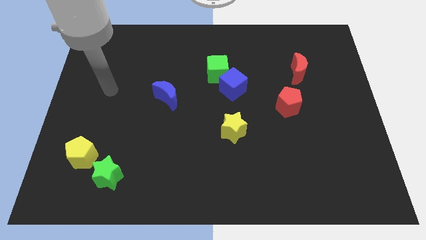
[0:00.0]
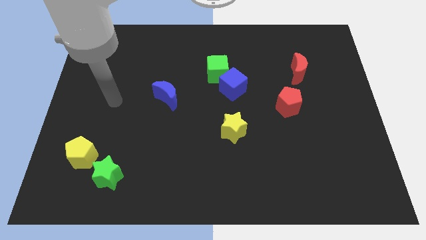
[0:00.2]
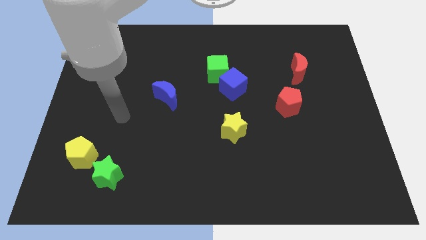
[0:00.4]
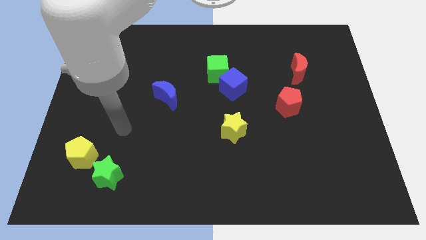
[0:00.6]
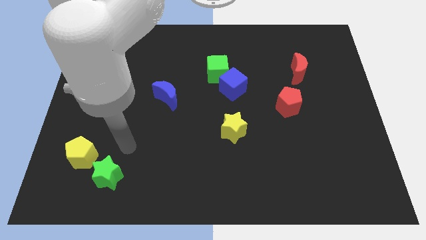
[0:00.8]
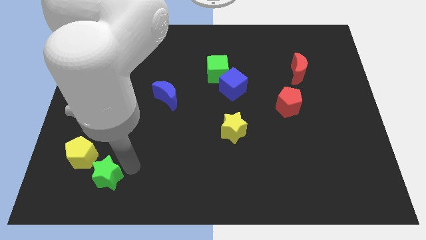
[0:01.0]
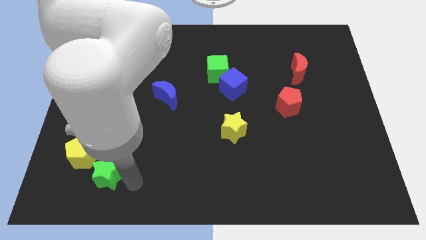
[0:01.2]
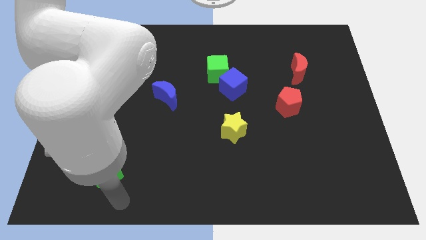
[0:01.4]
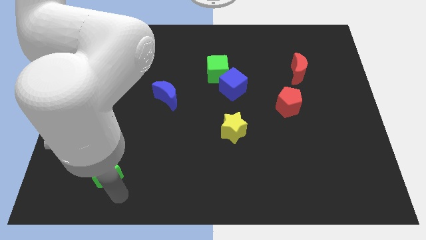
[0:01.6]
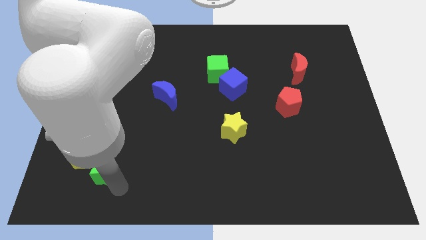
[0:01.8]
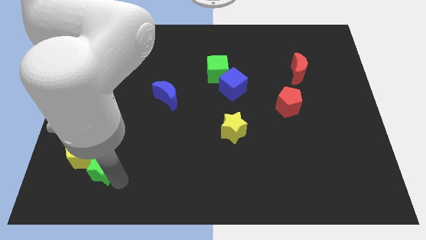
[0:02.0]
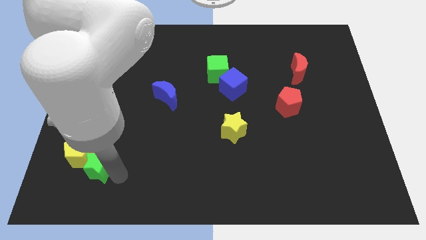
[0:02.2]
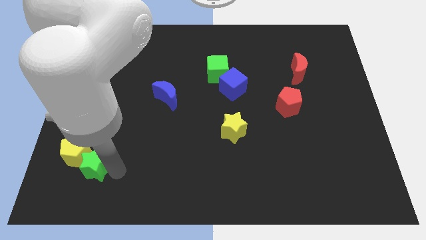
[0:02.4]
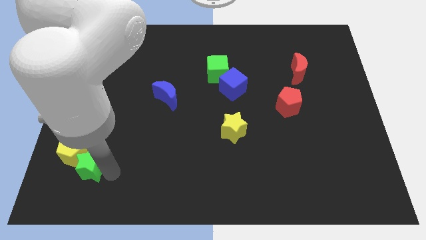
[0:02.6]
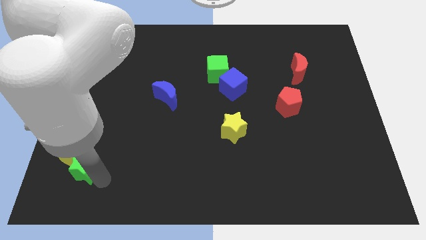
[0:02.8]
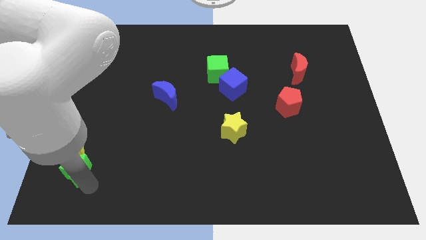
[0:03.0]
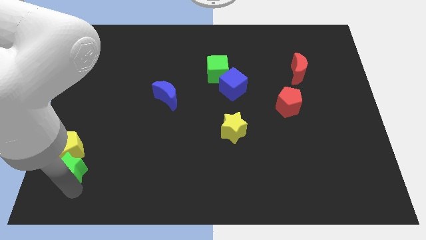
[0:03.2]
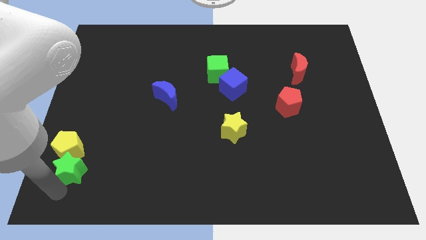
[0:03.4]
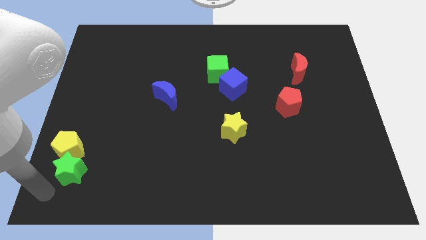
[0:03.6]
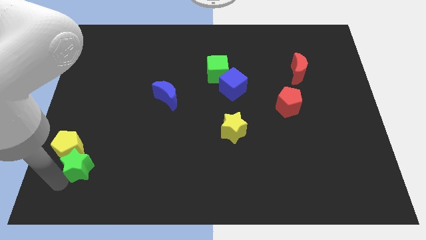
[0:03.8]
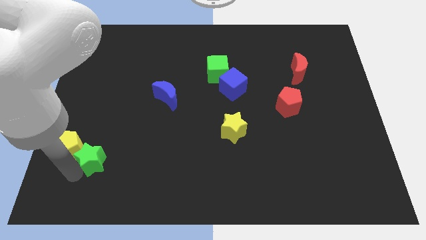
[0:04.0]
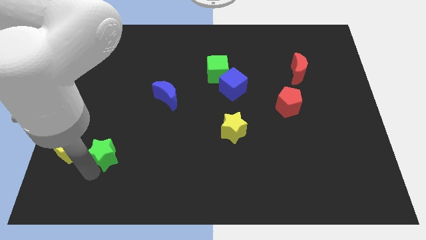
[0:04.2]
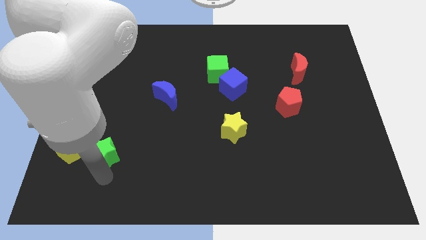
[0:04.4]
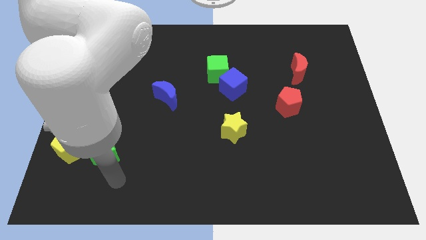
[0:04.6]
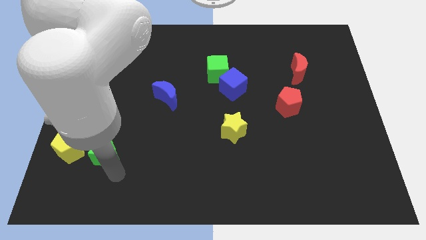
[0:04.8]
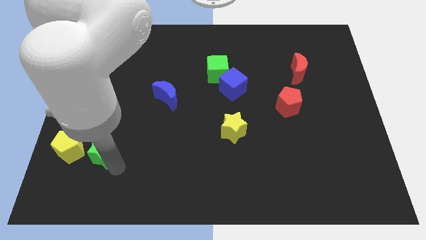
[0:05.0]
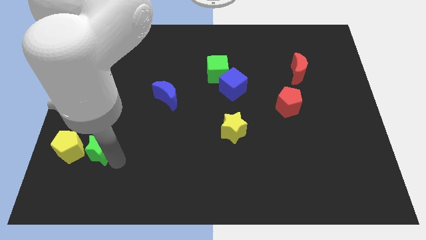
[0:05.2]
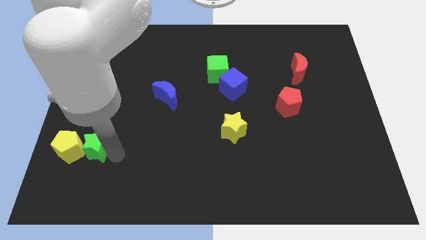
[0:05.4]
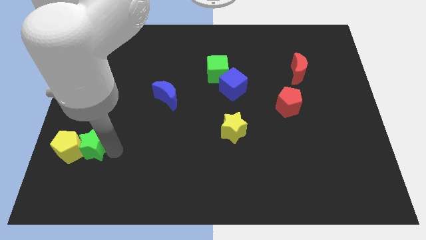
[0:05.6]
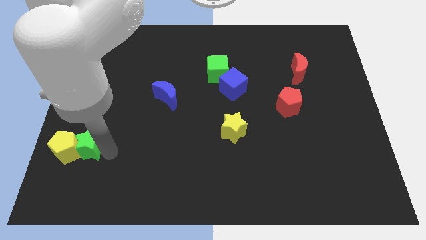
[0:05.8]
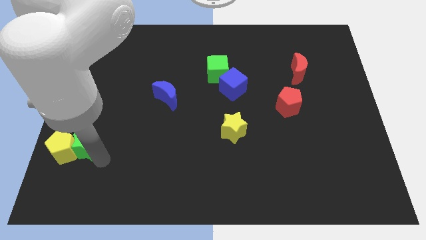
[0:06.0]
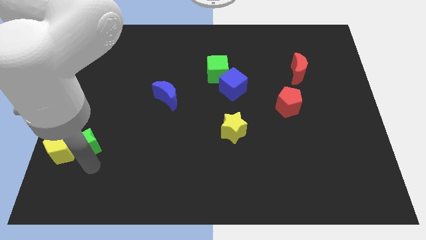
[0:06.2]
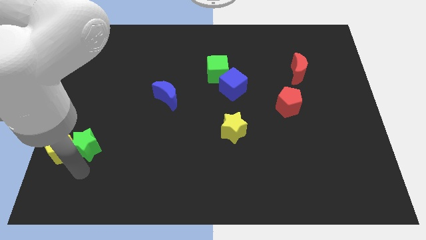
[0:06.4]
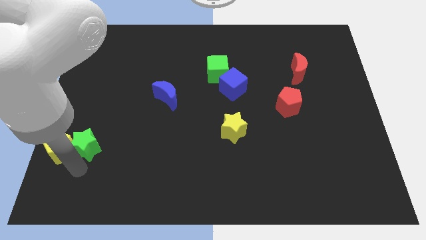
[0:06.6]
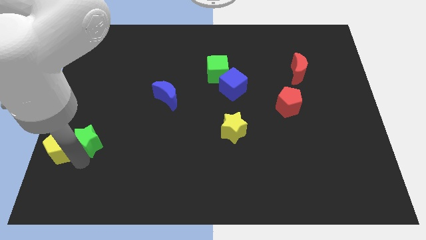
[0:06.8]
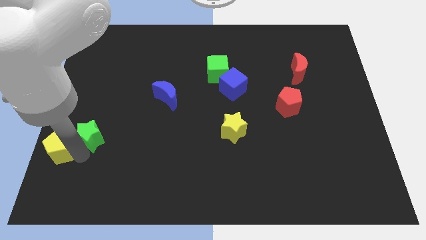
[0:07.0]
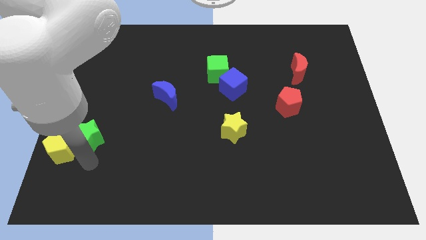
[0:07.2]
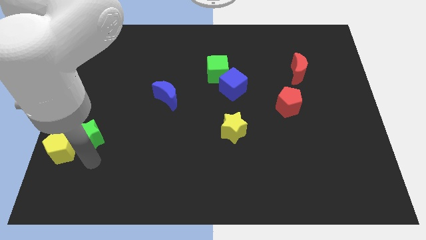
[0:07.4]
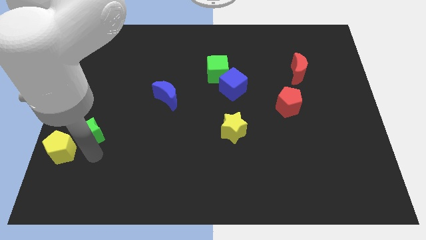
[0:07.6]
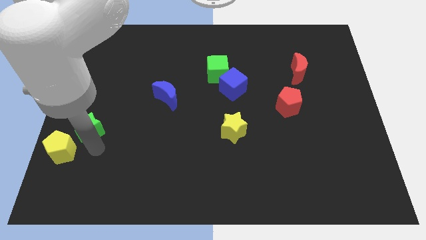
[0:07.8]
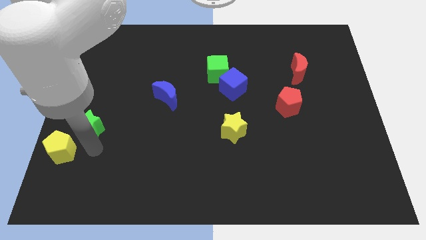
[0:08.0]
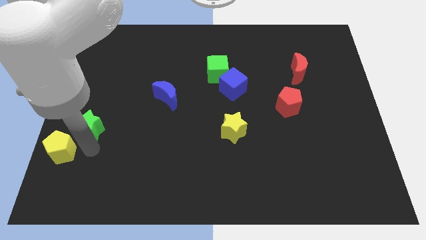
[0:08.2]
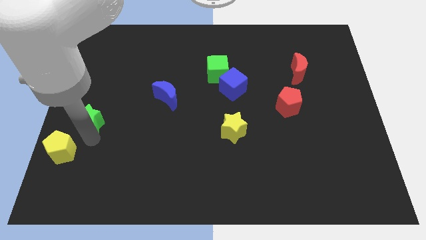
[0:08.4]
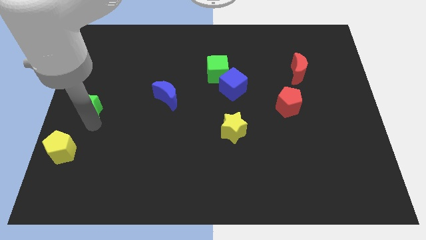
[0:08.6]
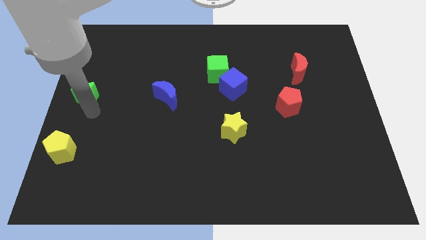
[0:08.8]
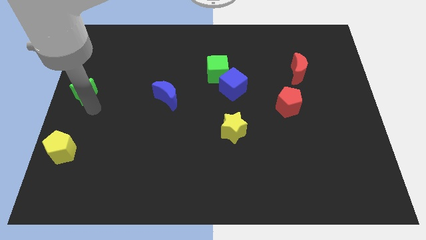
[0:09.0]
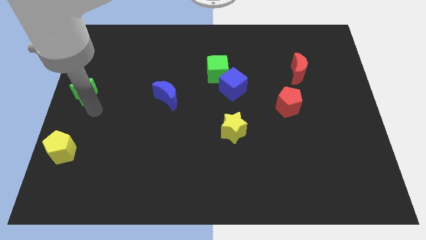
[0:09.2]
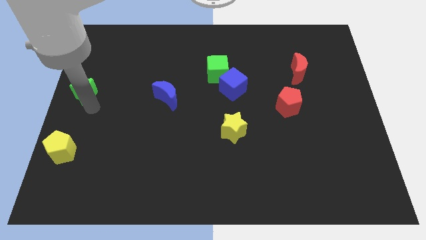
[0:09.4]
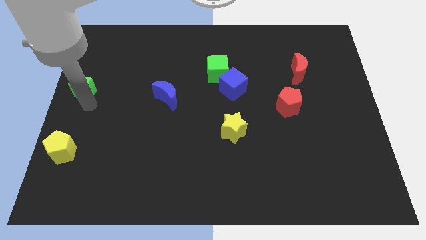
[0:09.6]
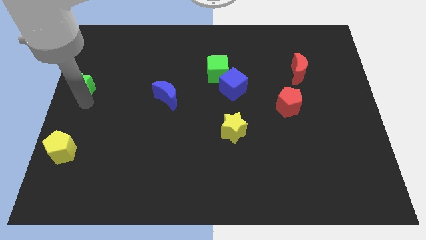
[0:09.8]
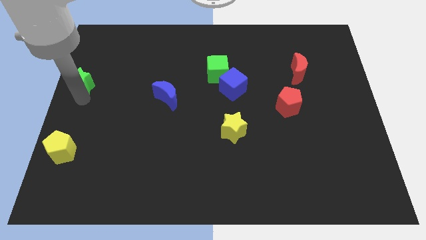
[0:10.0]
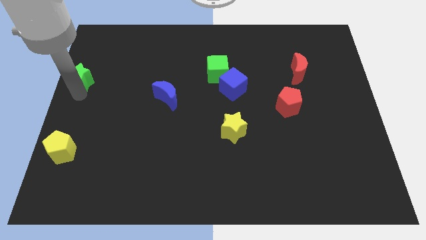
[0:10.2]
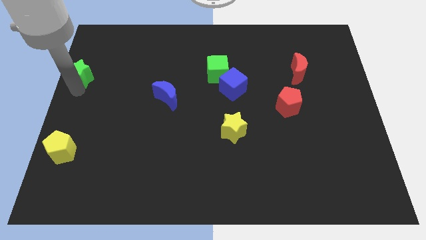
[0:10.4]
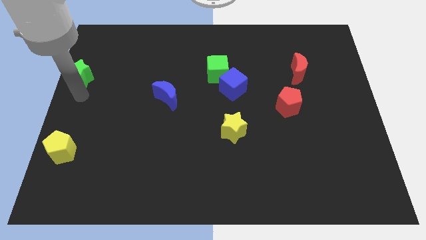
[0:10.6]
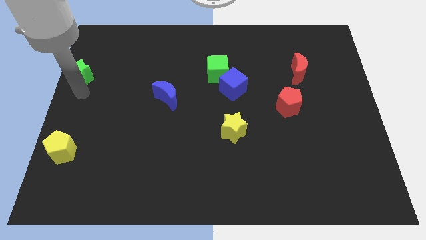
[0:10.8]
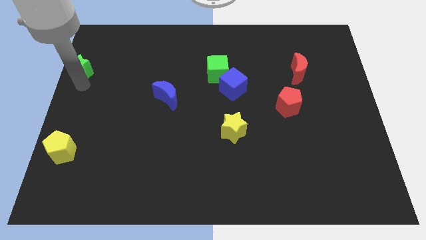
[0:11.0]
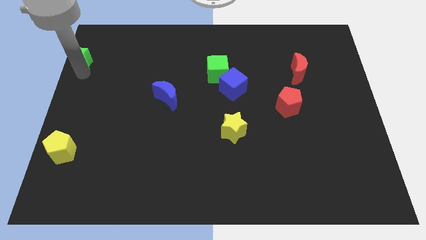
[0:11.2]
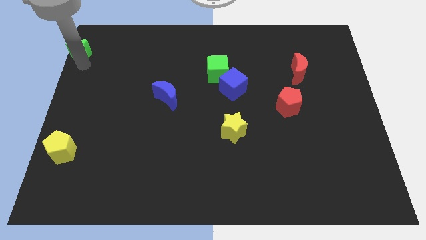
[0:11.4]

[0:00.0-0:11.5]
slide the green star to the upper left corner

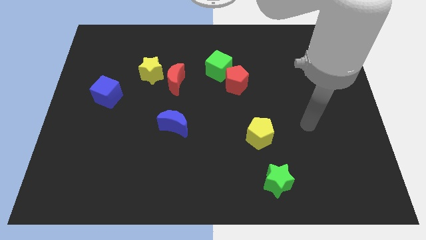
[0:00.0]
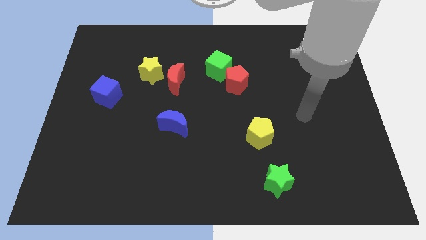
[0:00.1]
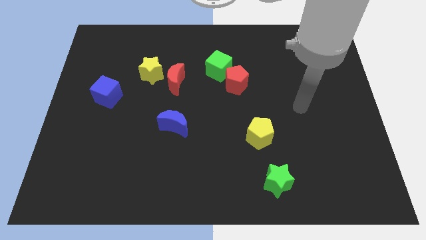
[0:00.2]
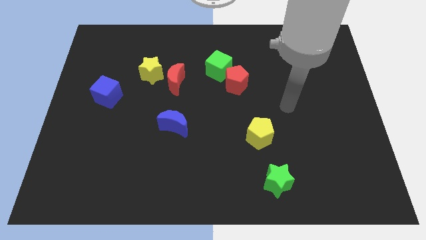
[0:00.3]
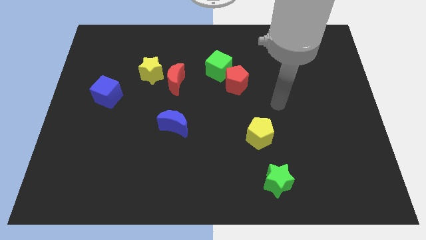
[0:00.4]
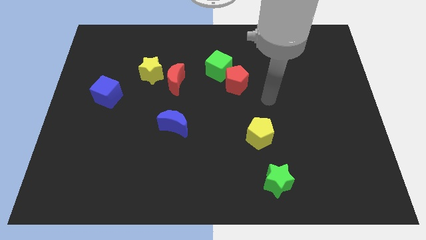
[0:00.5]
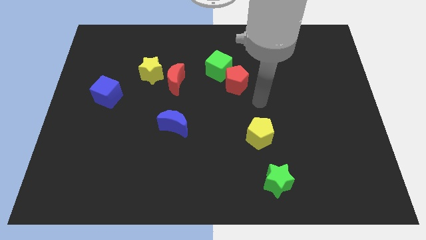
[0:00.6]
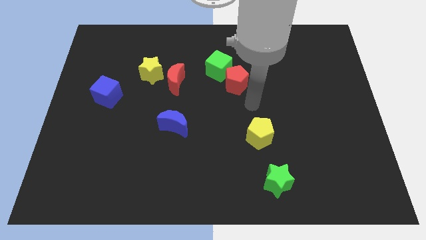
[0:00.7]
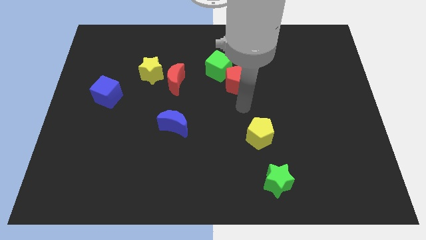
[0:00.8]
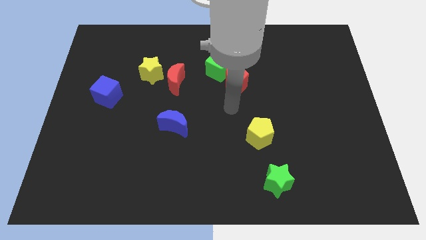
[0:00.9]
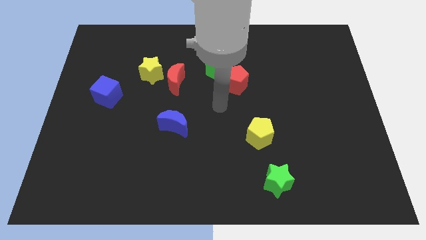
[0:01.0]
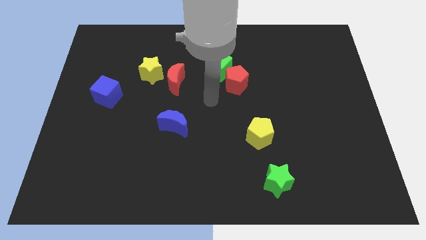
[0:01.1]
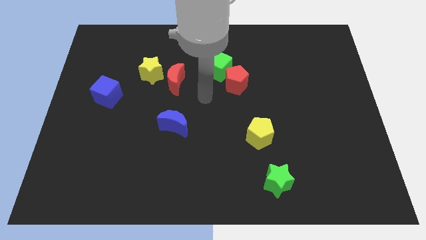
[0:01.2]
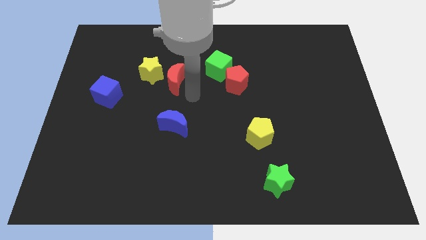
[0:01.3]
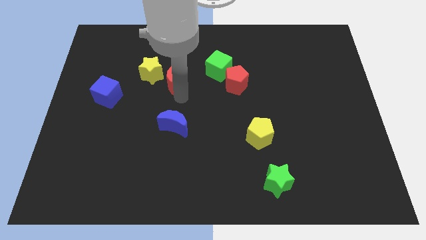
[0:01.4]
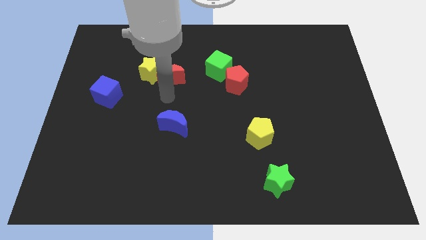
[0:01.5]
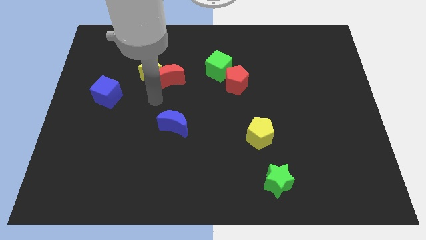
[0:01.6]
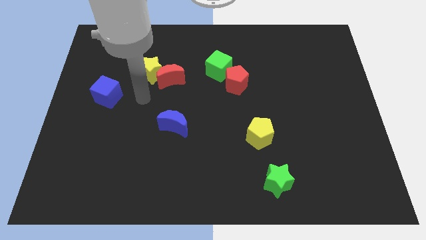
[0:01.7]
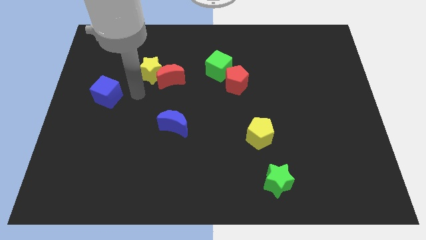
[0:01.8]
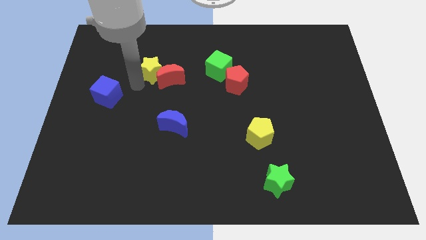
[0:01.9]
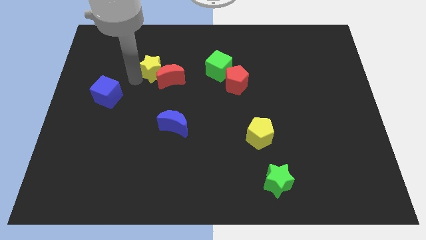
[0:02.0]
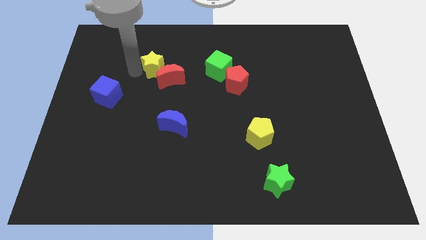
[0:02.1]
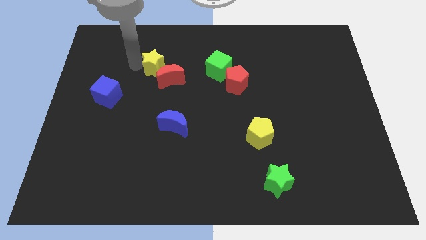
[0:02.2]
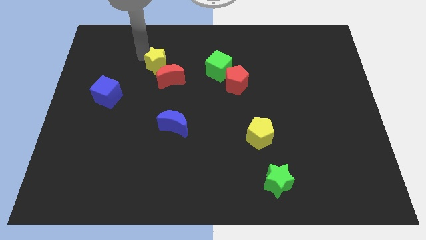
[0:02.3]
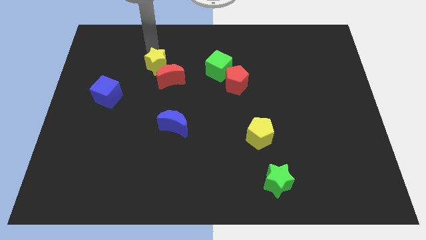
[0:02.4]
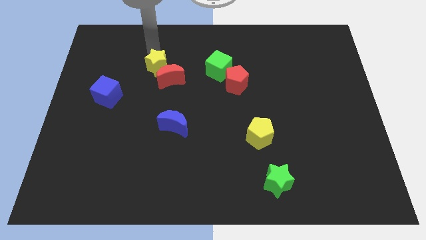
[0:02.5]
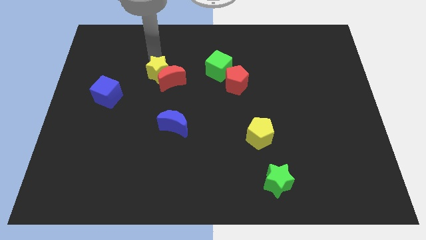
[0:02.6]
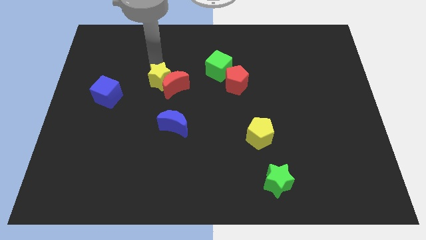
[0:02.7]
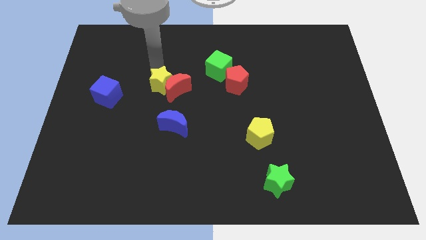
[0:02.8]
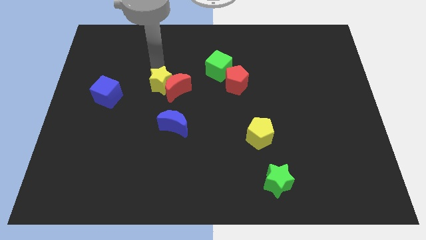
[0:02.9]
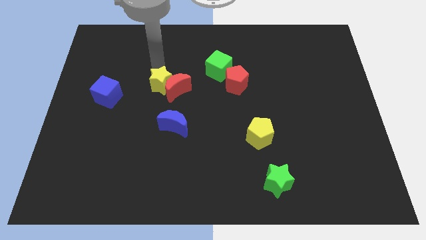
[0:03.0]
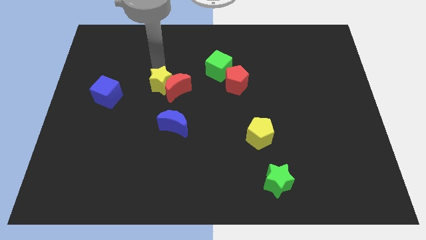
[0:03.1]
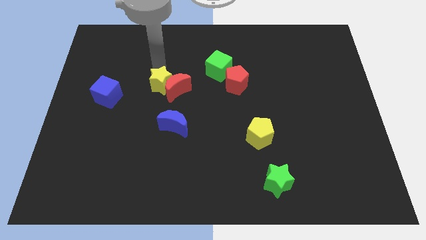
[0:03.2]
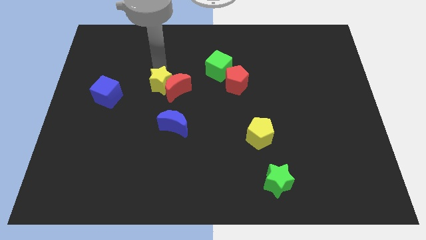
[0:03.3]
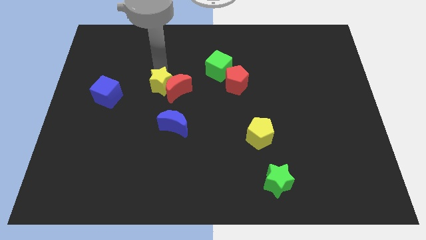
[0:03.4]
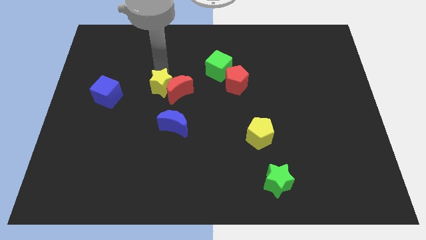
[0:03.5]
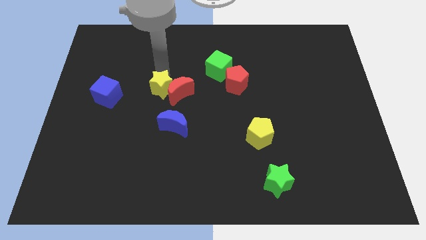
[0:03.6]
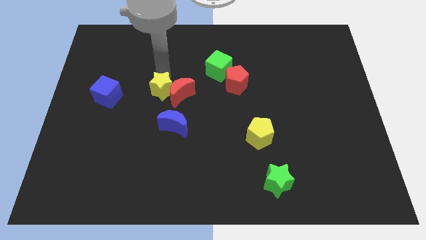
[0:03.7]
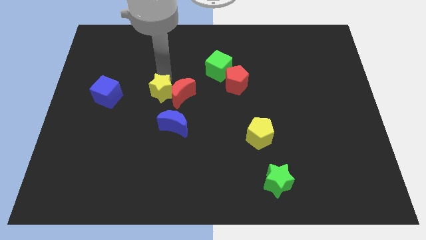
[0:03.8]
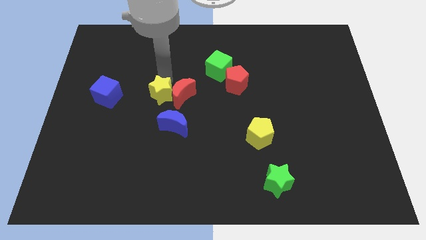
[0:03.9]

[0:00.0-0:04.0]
slide the yellow star to the center of the board
